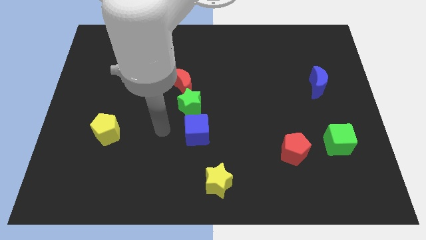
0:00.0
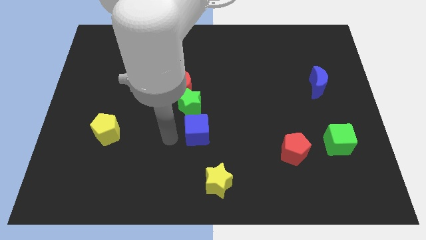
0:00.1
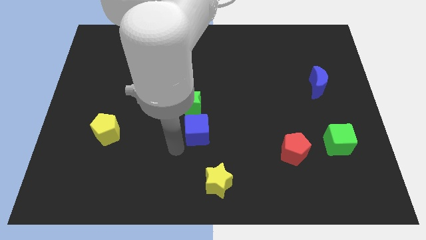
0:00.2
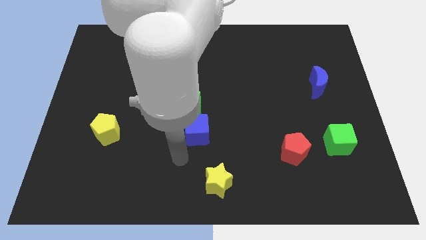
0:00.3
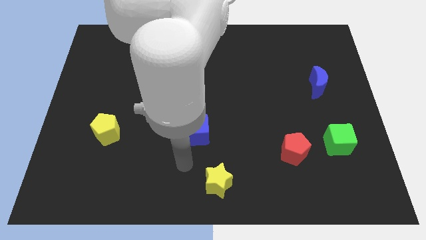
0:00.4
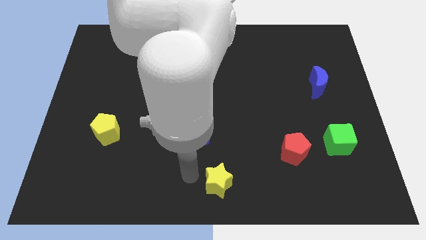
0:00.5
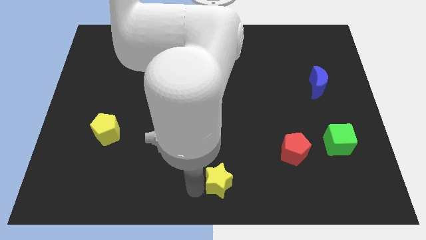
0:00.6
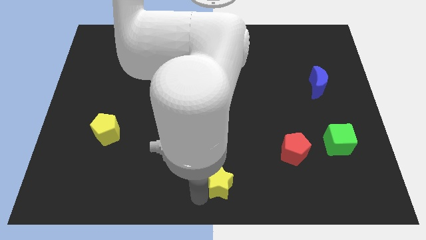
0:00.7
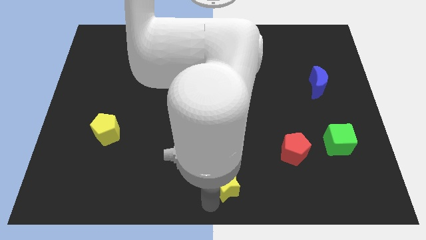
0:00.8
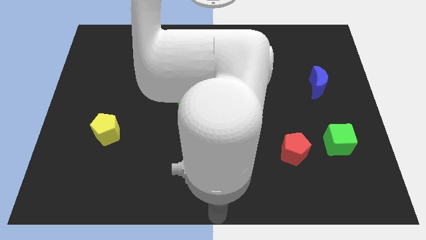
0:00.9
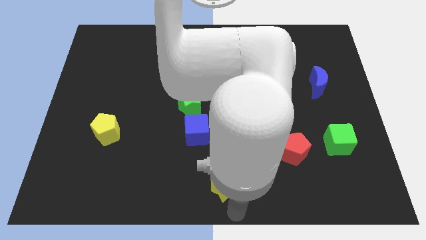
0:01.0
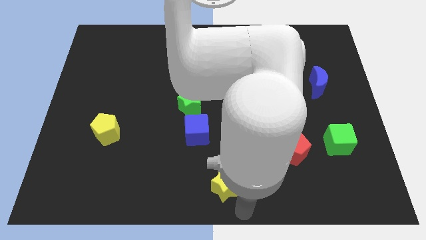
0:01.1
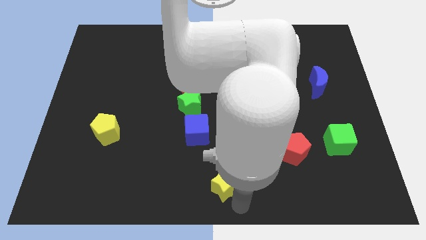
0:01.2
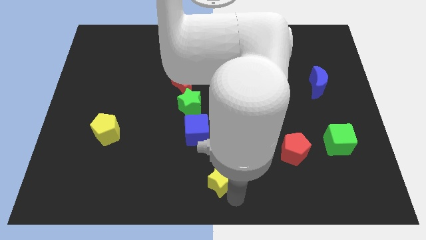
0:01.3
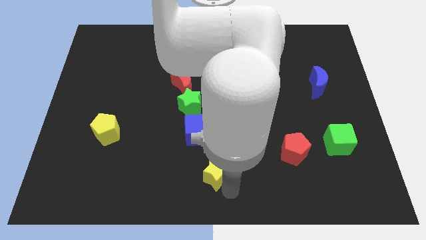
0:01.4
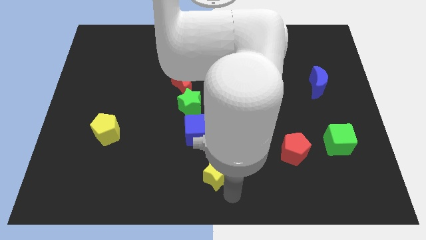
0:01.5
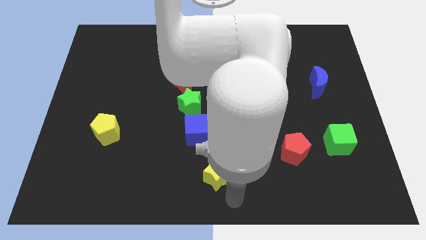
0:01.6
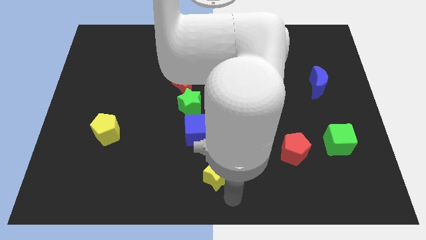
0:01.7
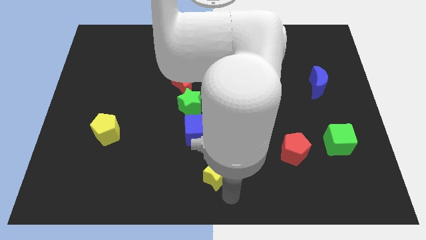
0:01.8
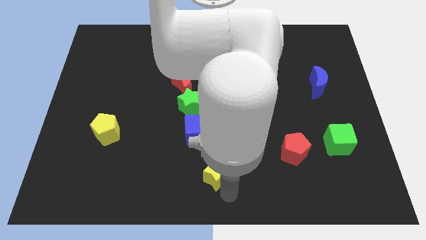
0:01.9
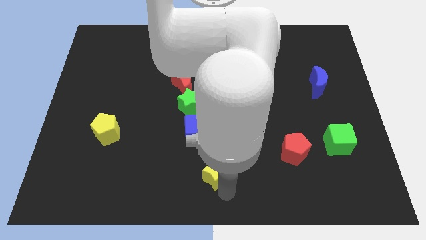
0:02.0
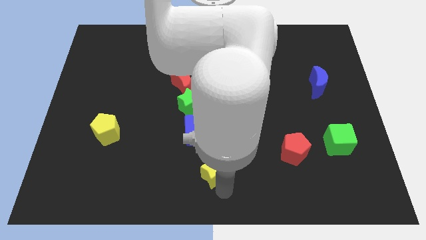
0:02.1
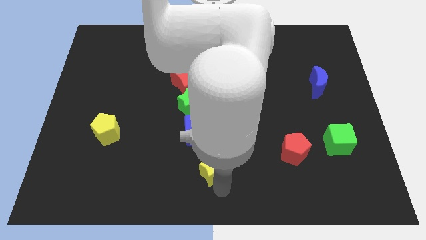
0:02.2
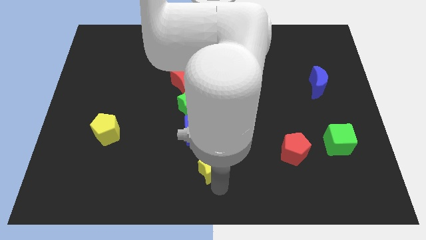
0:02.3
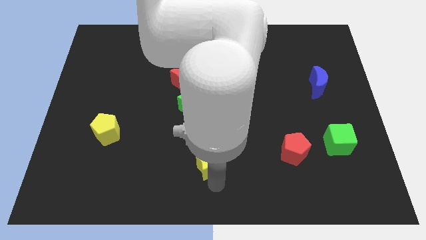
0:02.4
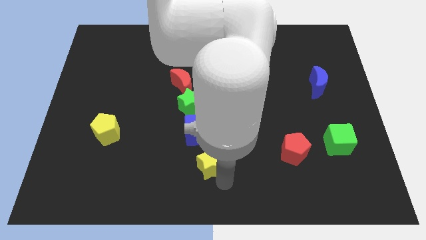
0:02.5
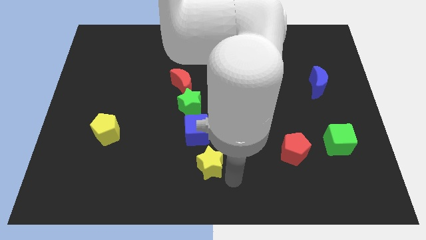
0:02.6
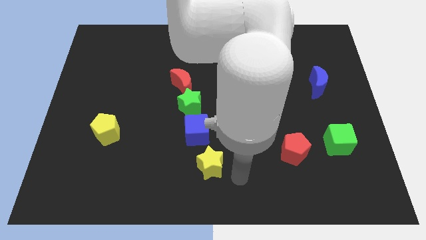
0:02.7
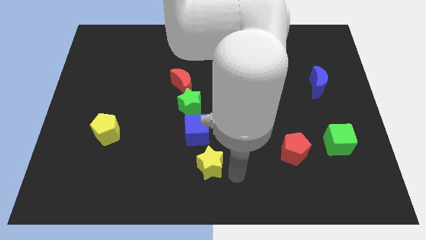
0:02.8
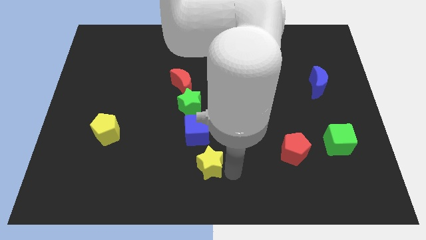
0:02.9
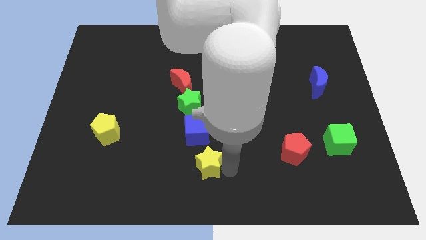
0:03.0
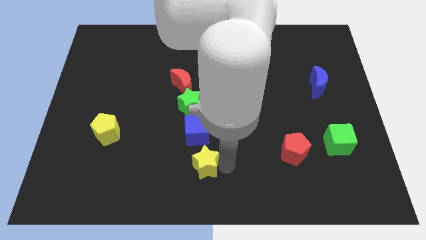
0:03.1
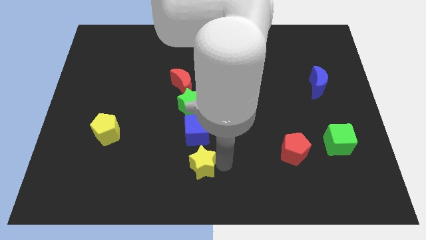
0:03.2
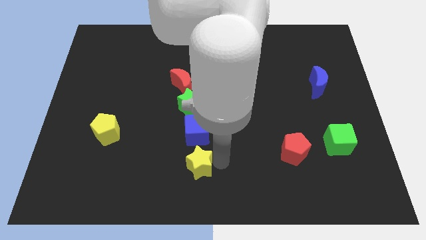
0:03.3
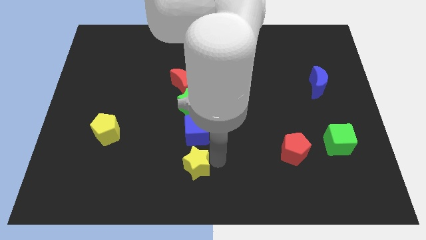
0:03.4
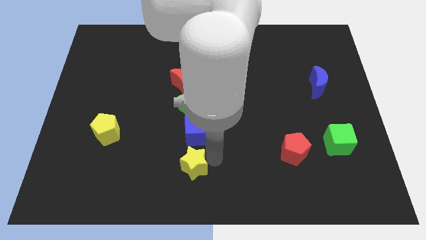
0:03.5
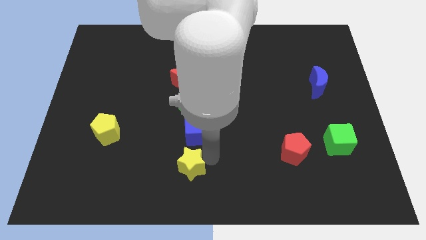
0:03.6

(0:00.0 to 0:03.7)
slide the yellow star a bit upwards and then left

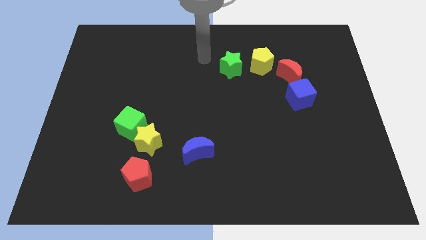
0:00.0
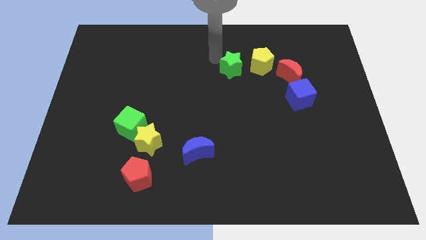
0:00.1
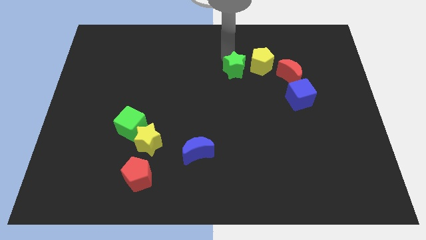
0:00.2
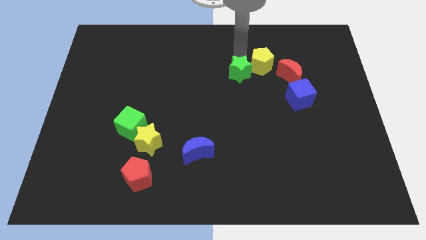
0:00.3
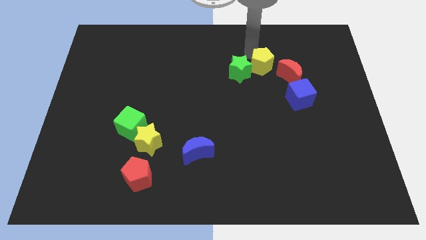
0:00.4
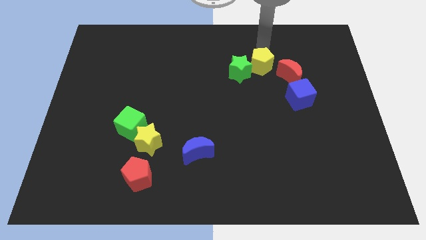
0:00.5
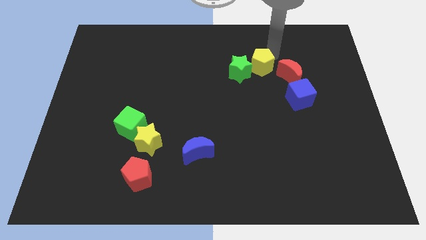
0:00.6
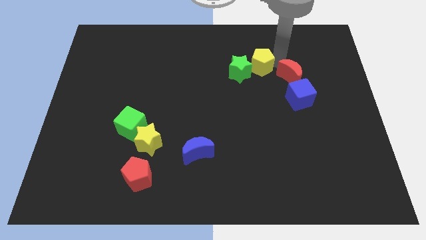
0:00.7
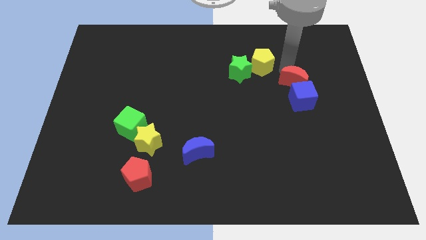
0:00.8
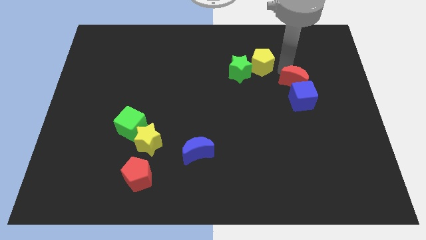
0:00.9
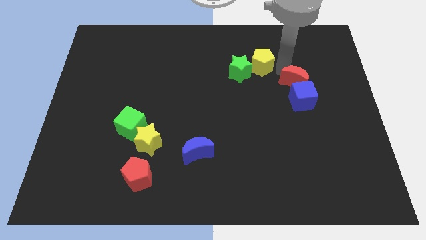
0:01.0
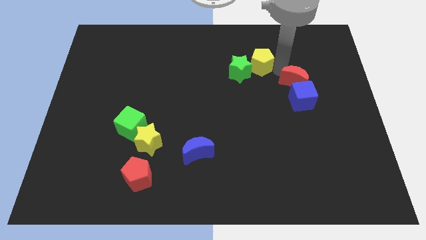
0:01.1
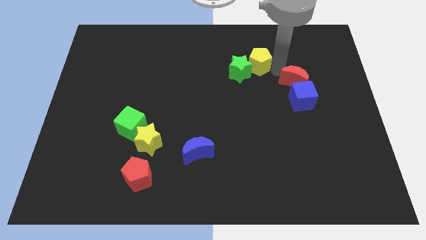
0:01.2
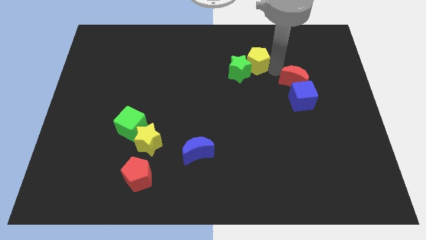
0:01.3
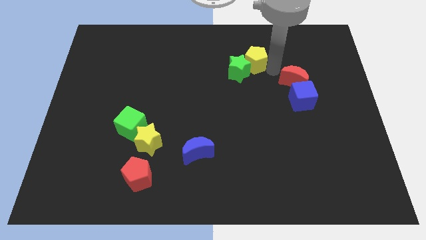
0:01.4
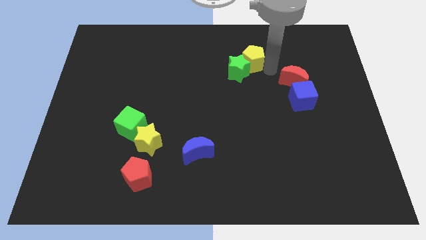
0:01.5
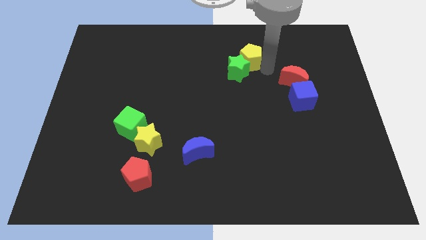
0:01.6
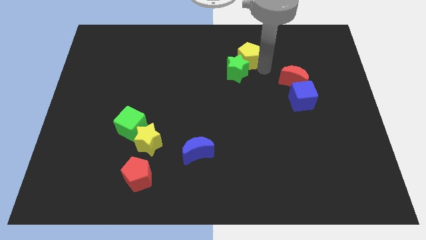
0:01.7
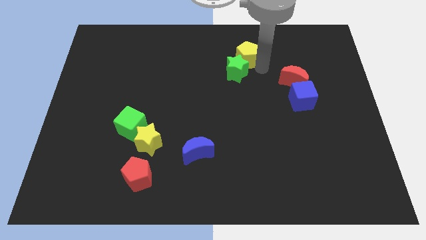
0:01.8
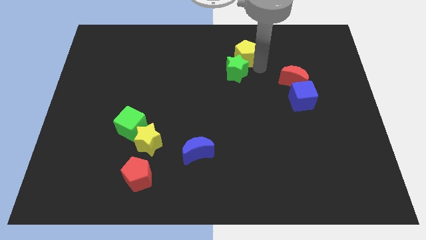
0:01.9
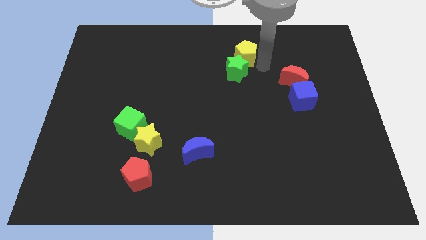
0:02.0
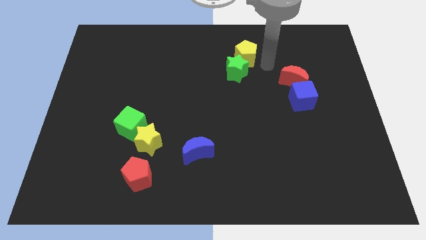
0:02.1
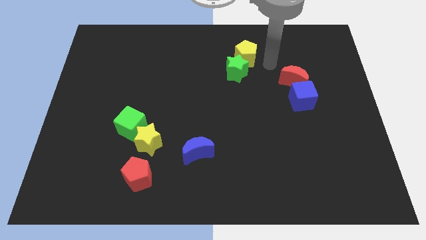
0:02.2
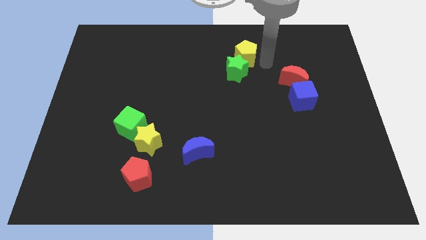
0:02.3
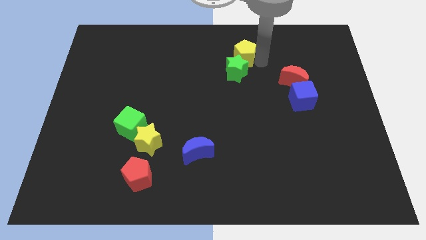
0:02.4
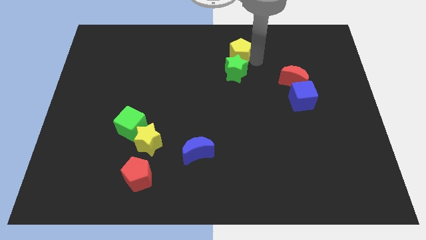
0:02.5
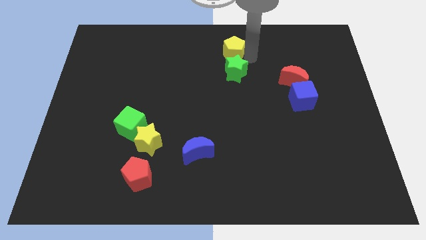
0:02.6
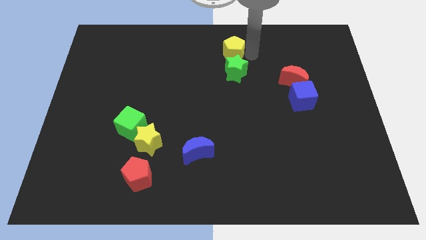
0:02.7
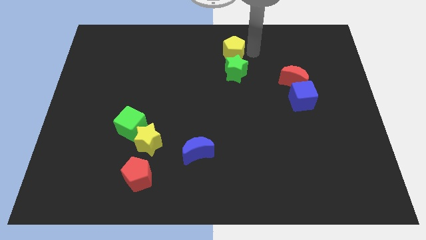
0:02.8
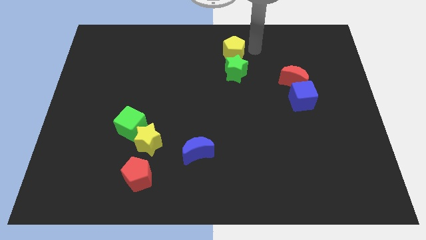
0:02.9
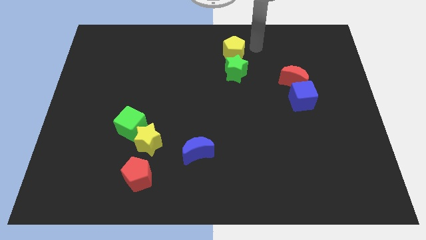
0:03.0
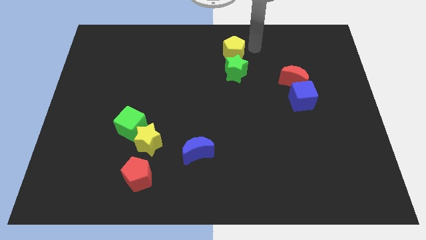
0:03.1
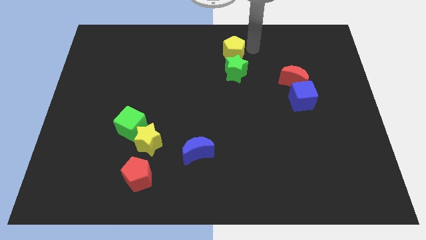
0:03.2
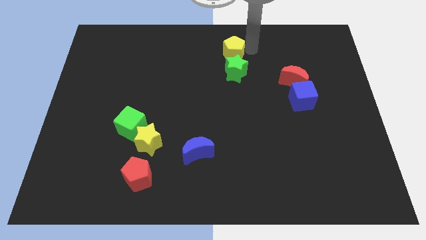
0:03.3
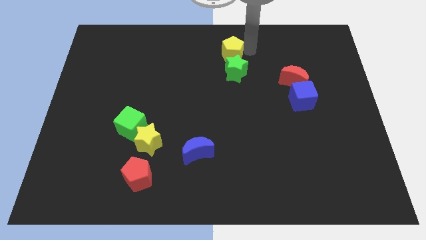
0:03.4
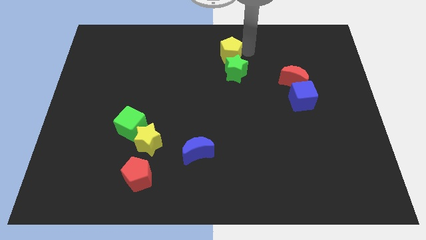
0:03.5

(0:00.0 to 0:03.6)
move the yellow pentagon somewhat left

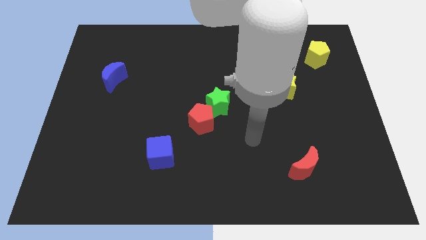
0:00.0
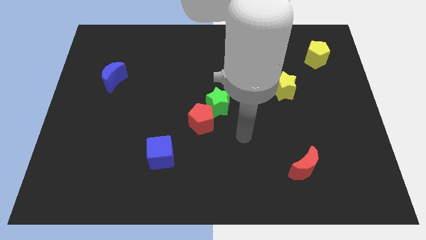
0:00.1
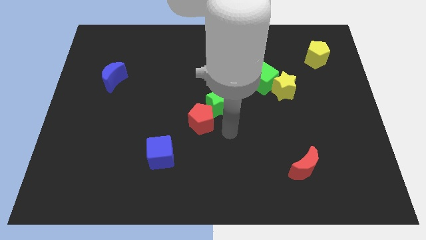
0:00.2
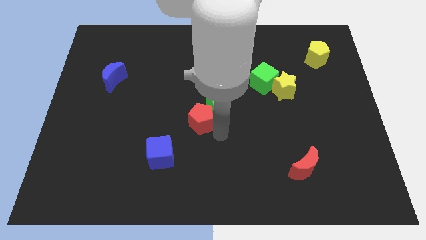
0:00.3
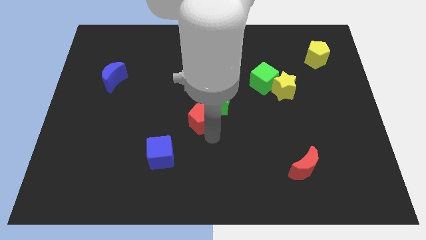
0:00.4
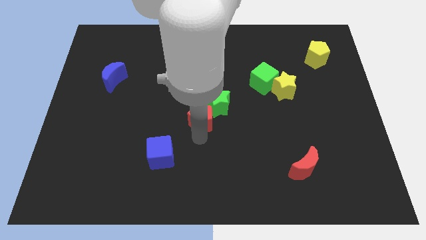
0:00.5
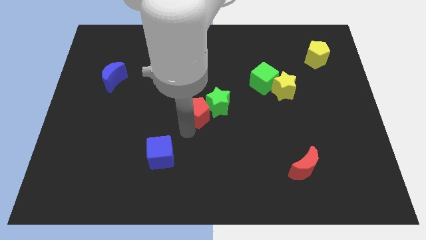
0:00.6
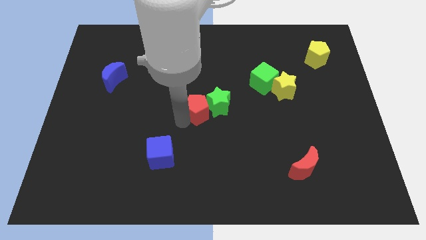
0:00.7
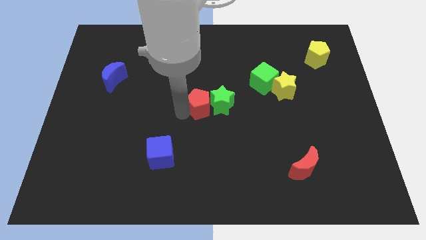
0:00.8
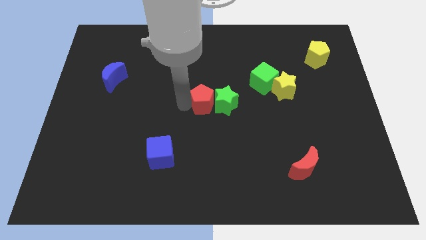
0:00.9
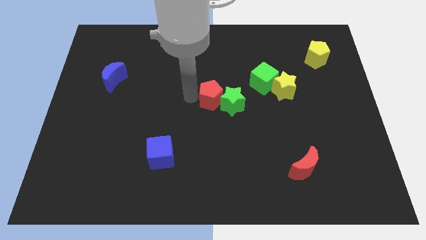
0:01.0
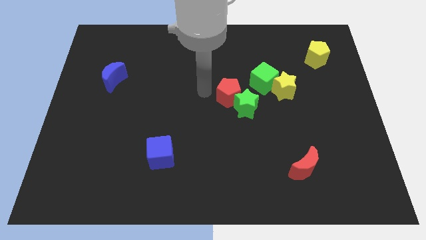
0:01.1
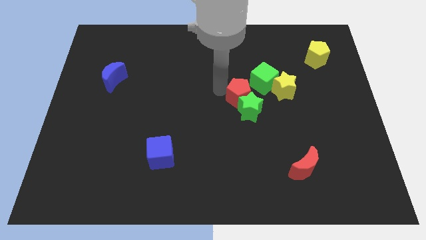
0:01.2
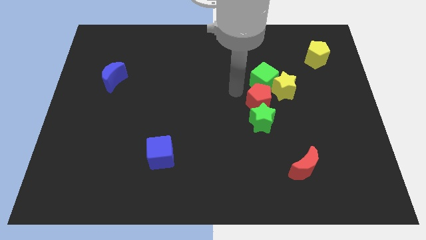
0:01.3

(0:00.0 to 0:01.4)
slightly move the green star downwards and to the right
